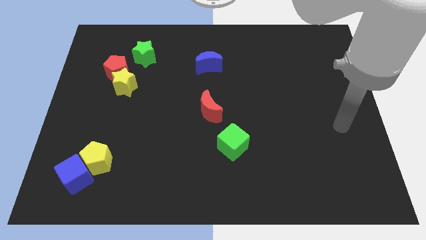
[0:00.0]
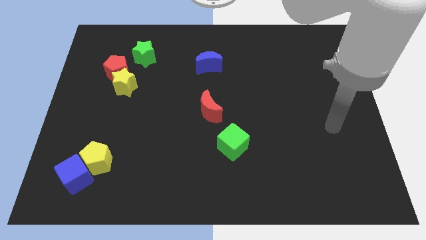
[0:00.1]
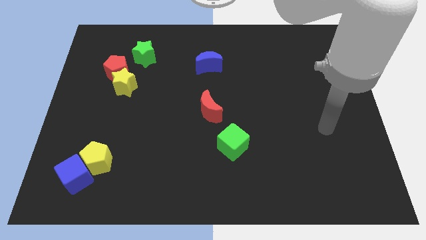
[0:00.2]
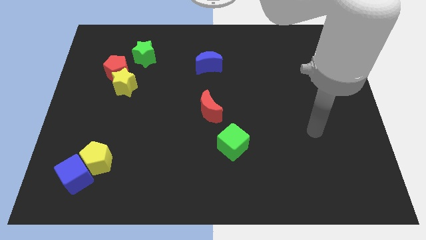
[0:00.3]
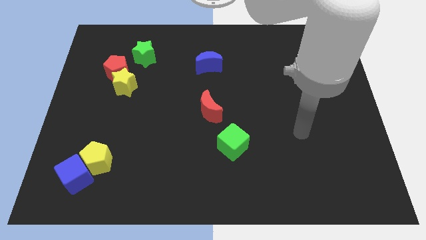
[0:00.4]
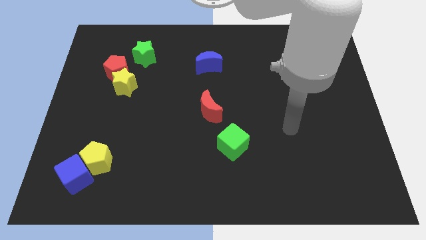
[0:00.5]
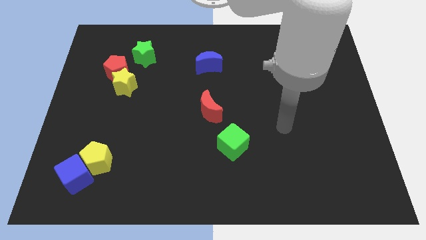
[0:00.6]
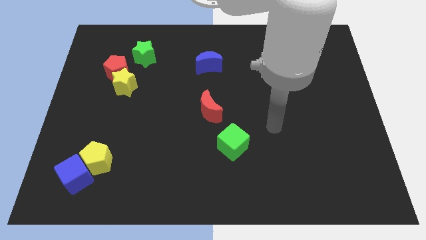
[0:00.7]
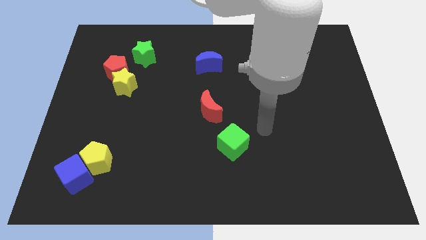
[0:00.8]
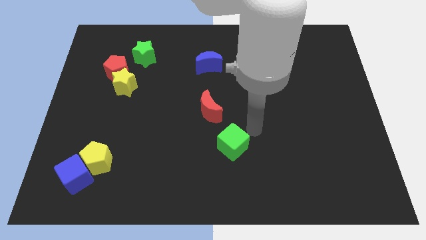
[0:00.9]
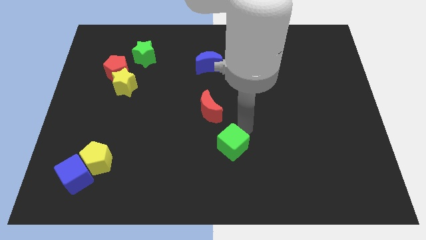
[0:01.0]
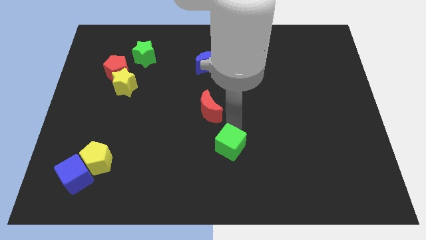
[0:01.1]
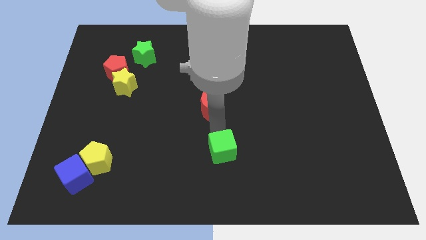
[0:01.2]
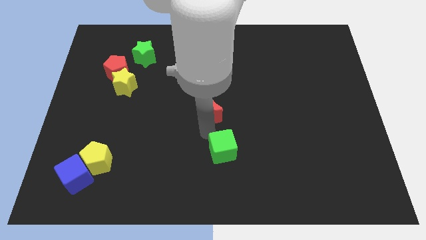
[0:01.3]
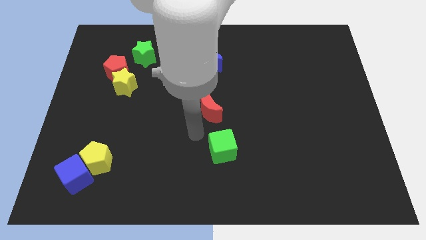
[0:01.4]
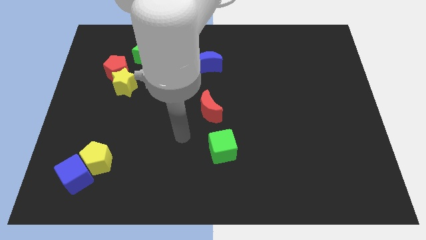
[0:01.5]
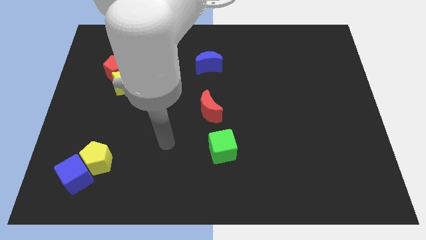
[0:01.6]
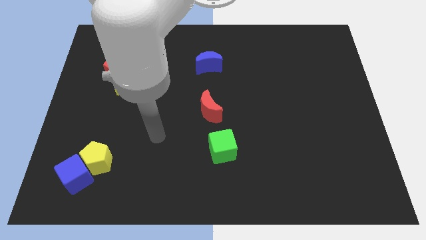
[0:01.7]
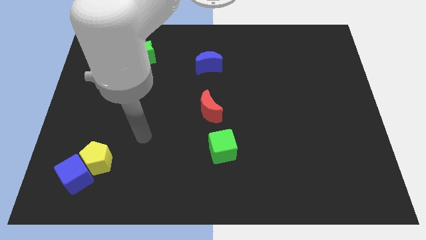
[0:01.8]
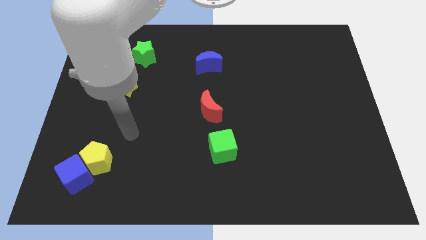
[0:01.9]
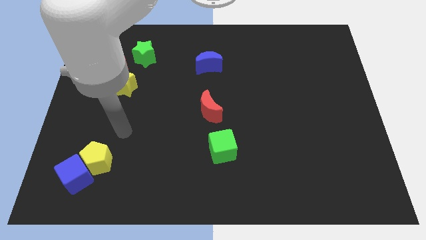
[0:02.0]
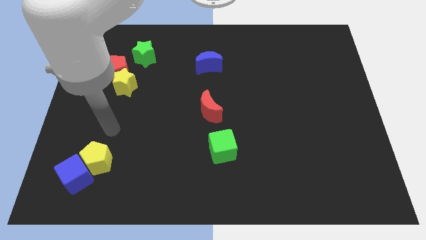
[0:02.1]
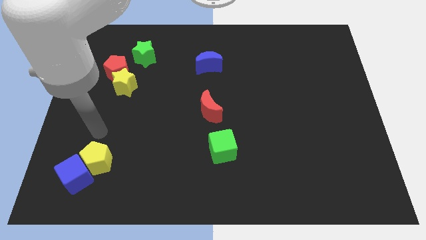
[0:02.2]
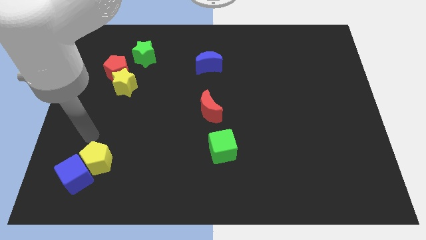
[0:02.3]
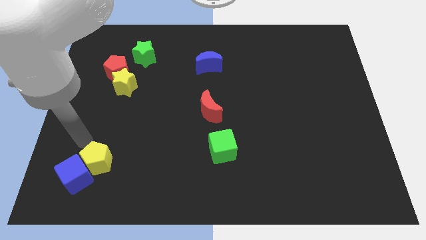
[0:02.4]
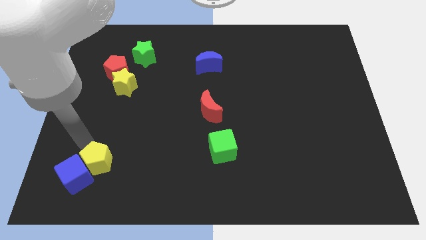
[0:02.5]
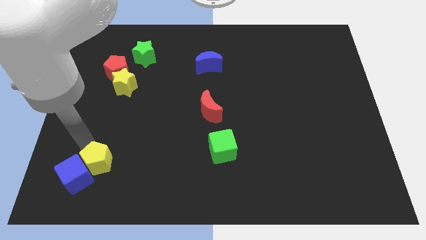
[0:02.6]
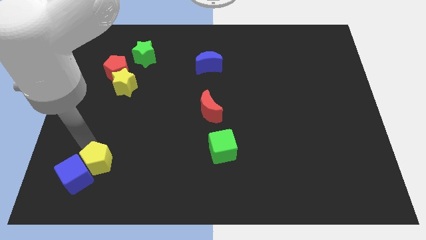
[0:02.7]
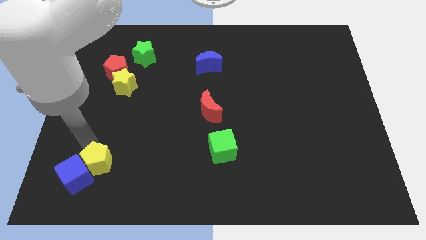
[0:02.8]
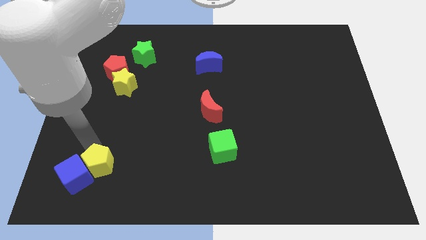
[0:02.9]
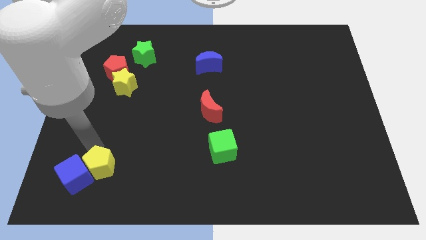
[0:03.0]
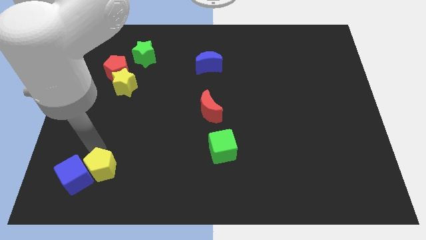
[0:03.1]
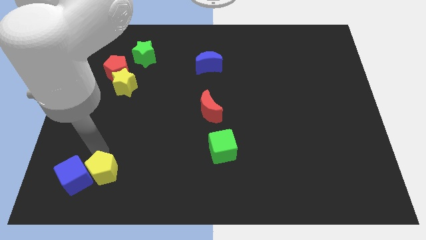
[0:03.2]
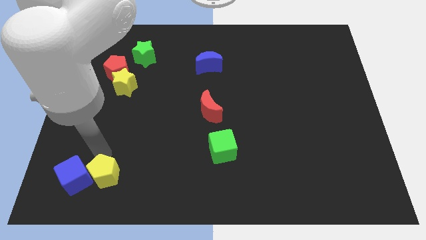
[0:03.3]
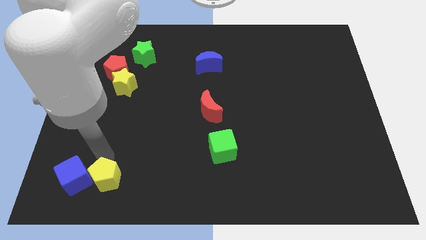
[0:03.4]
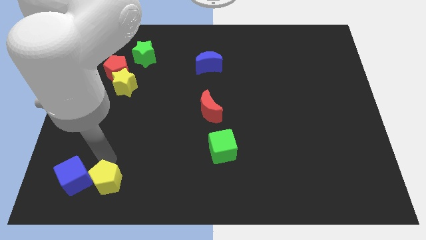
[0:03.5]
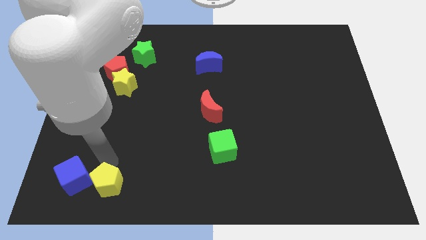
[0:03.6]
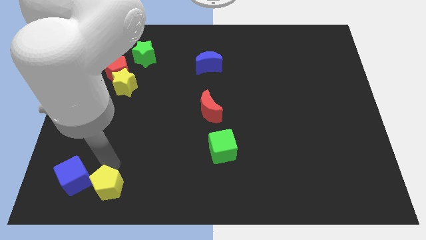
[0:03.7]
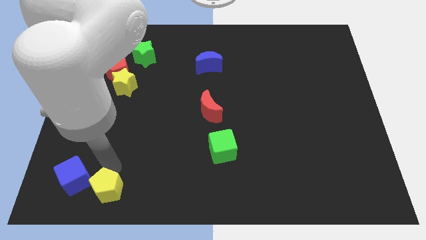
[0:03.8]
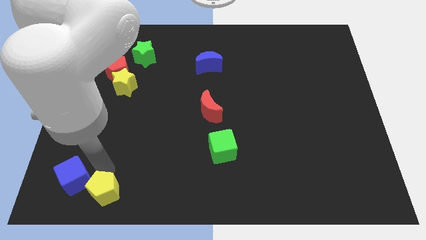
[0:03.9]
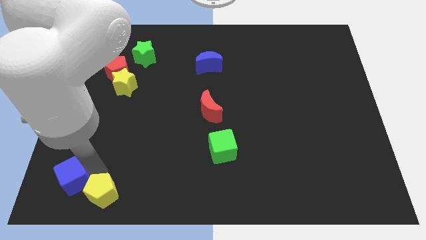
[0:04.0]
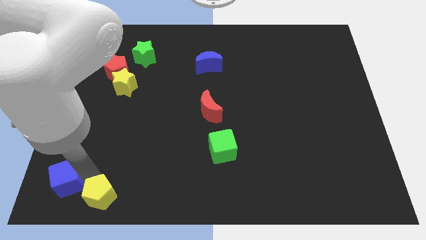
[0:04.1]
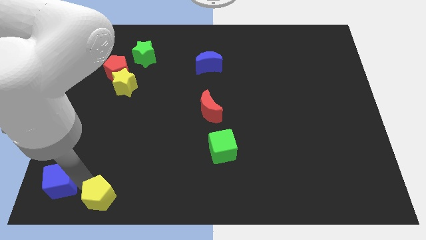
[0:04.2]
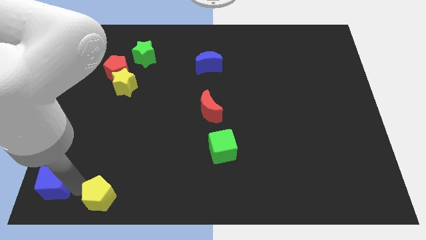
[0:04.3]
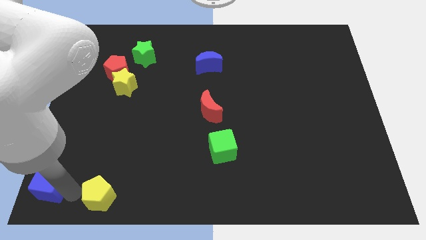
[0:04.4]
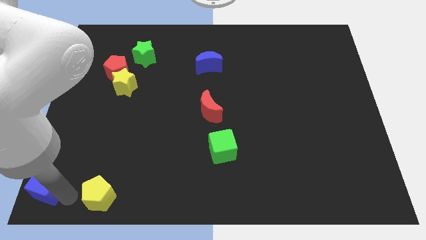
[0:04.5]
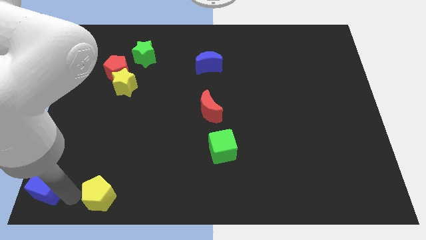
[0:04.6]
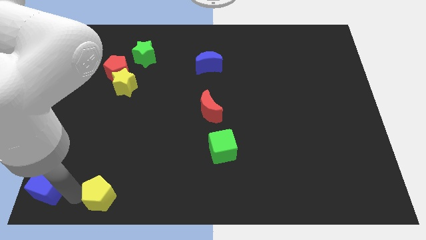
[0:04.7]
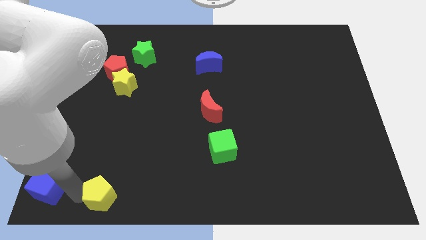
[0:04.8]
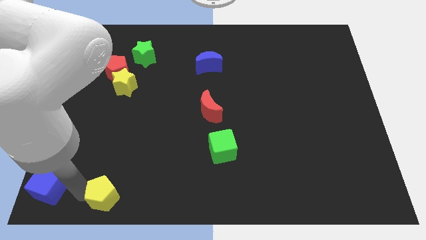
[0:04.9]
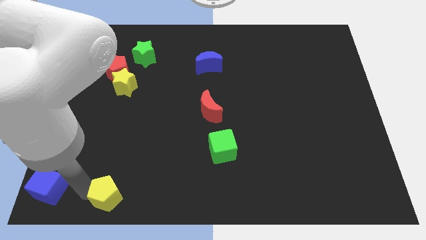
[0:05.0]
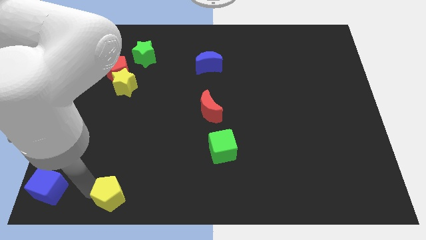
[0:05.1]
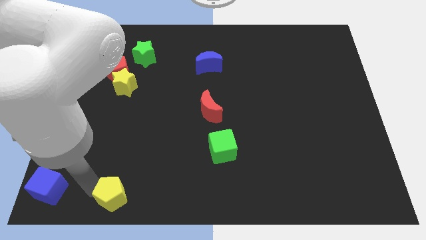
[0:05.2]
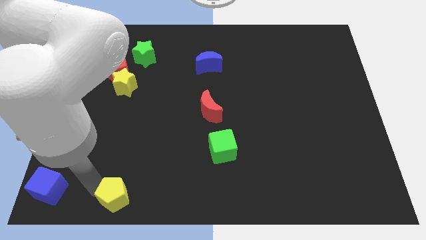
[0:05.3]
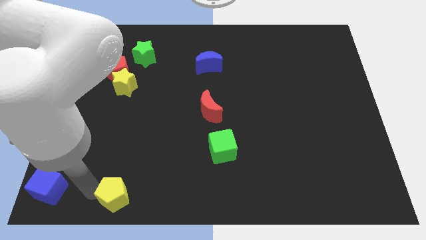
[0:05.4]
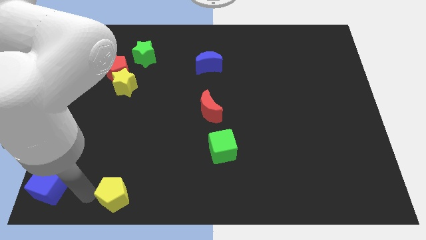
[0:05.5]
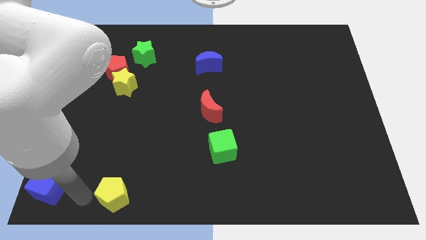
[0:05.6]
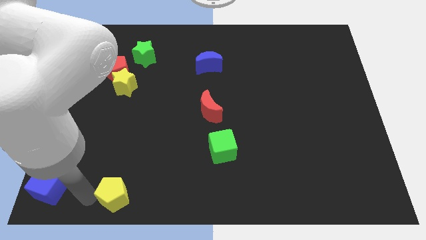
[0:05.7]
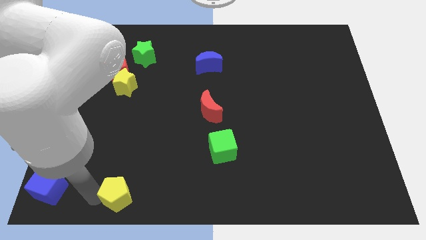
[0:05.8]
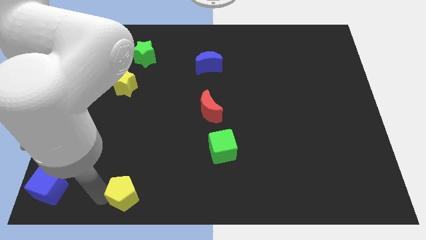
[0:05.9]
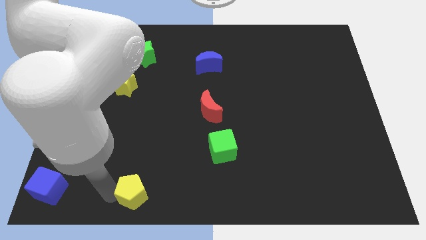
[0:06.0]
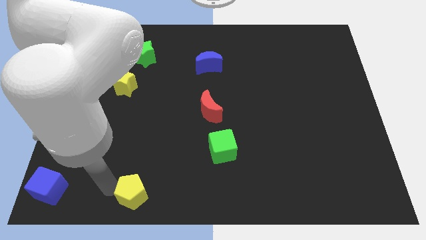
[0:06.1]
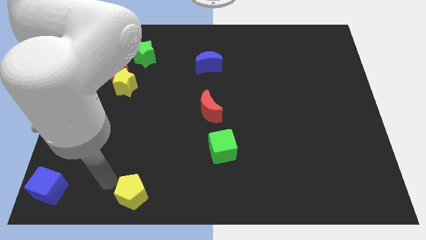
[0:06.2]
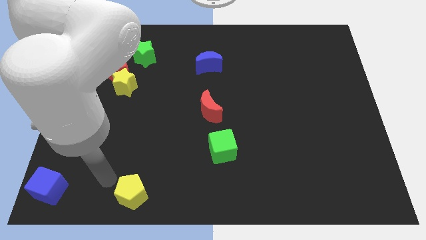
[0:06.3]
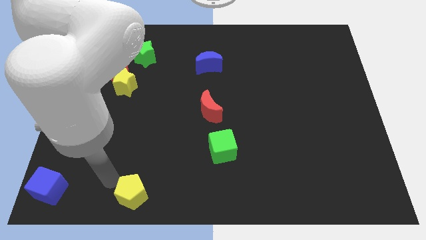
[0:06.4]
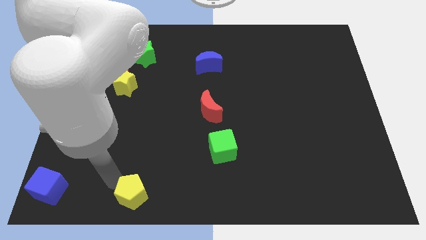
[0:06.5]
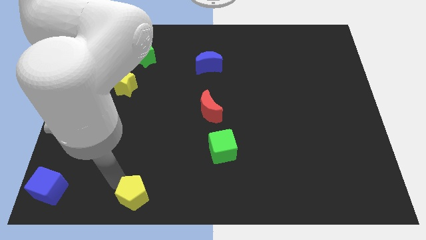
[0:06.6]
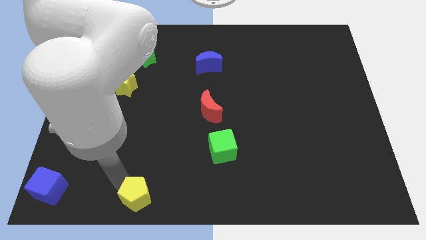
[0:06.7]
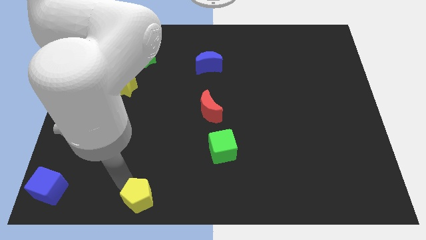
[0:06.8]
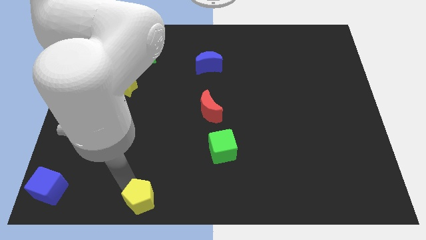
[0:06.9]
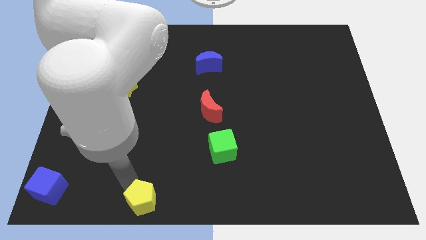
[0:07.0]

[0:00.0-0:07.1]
slide the yellow pentagon to the bottom side
